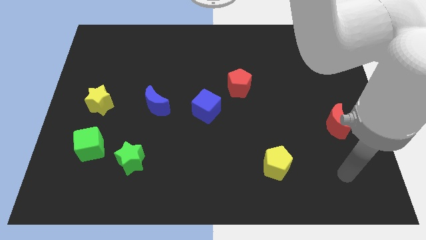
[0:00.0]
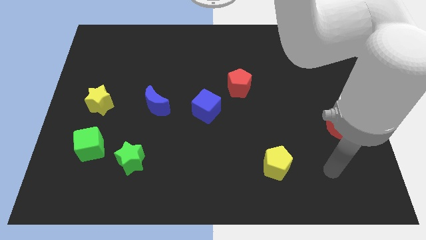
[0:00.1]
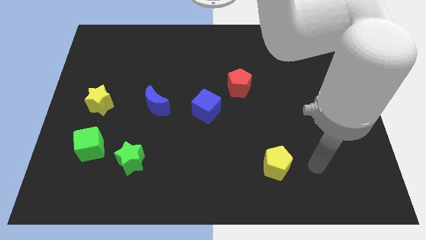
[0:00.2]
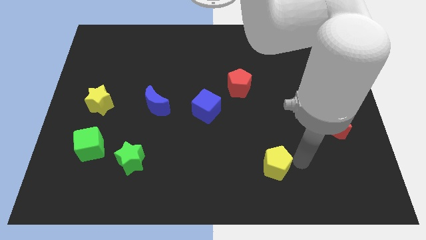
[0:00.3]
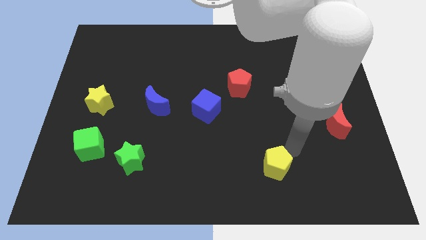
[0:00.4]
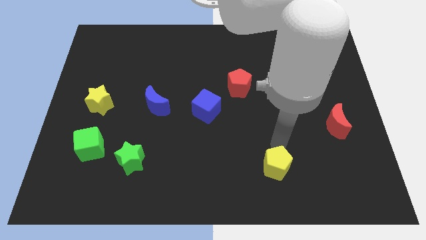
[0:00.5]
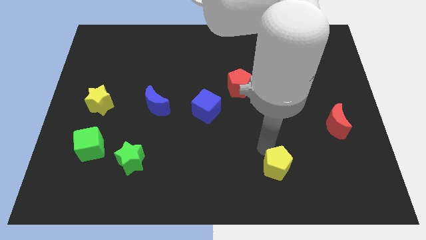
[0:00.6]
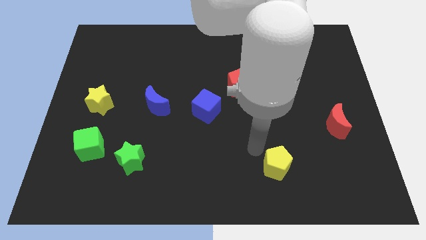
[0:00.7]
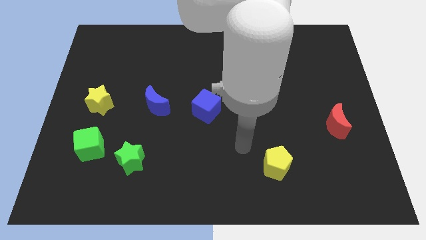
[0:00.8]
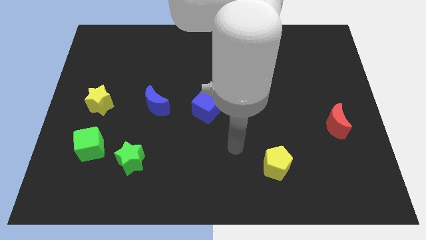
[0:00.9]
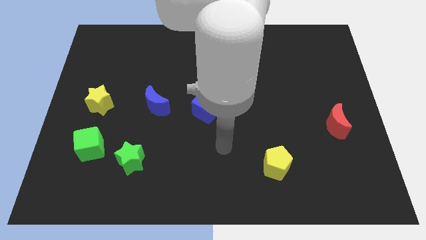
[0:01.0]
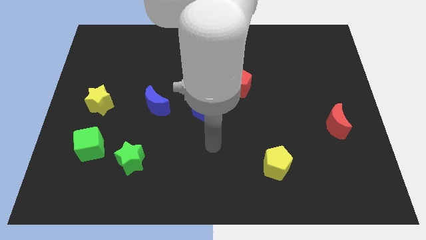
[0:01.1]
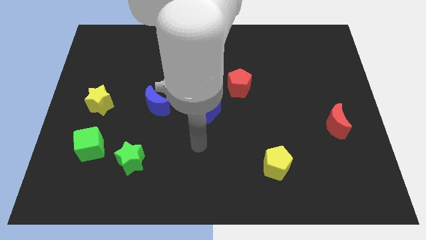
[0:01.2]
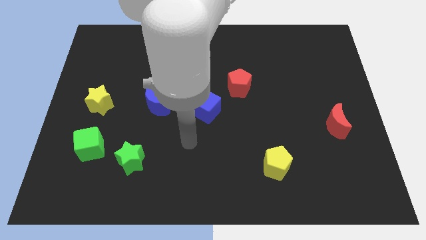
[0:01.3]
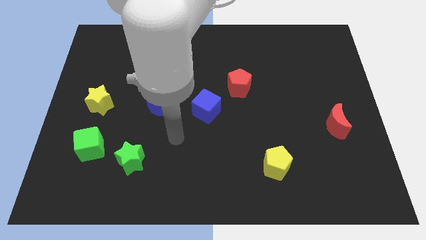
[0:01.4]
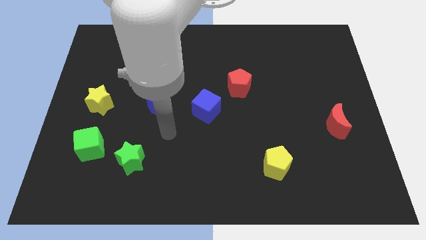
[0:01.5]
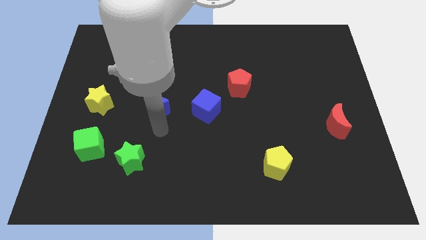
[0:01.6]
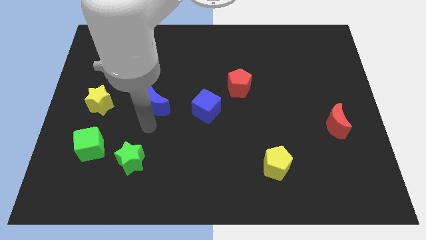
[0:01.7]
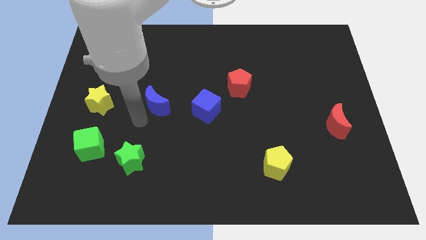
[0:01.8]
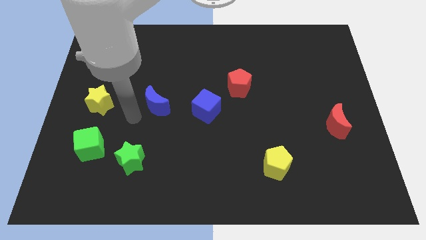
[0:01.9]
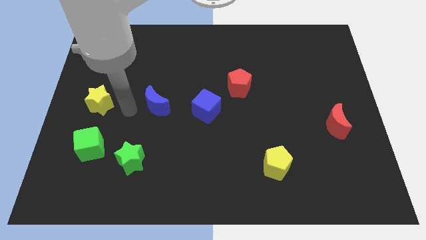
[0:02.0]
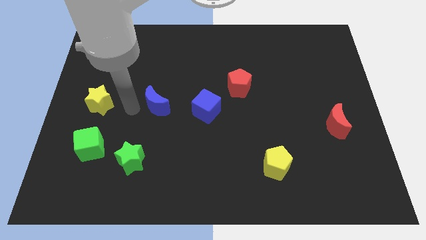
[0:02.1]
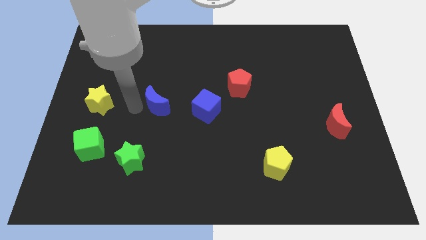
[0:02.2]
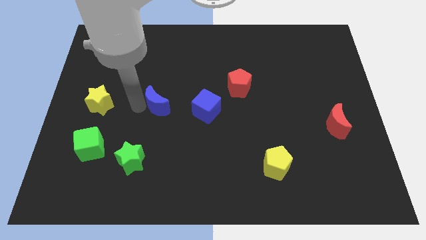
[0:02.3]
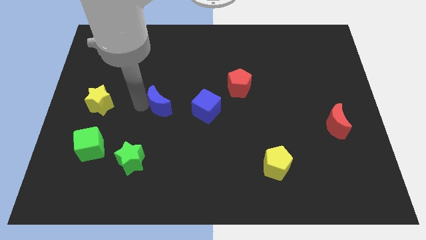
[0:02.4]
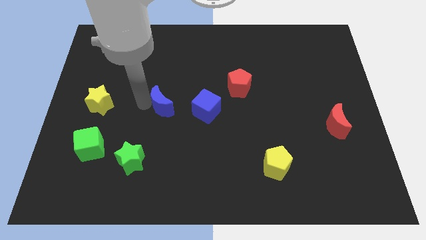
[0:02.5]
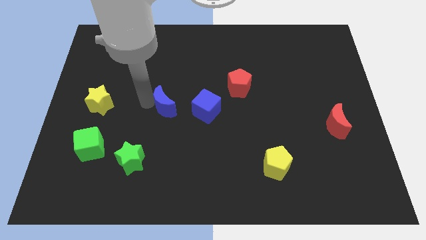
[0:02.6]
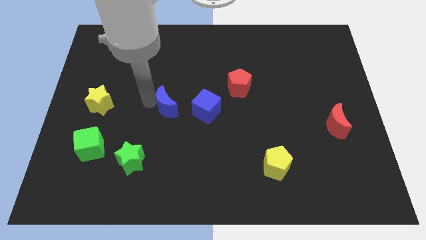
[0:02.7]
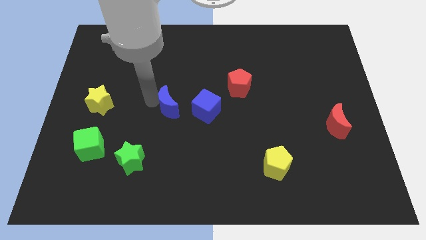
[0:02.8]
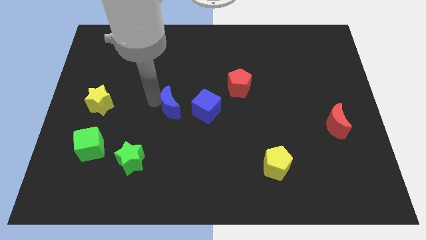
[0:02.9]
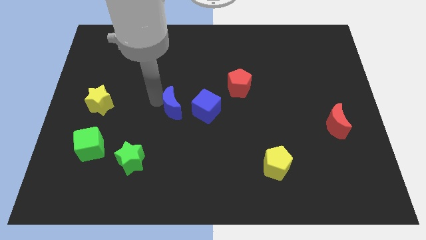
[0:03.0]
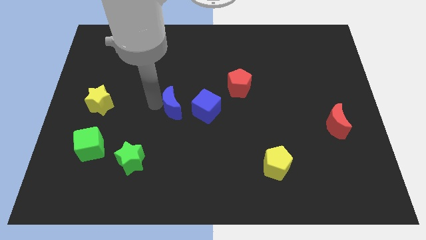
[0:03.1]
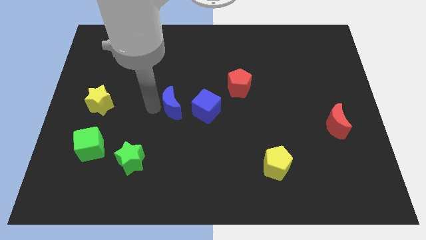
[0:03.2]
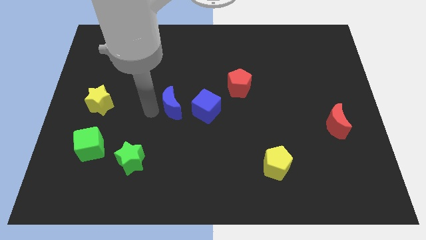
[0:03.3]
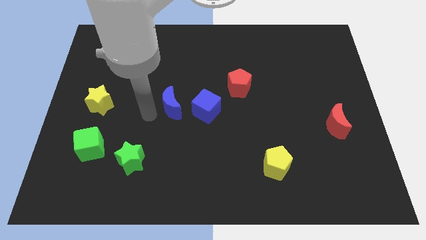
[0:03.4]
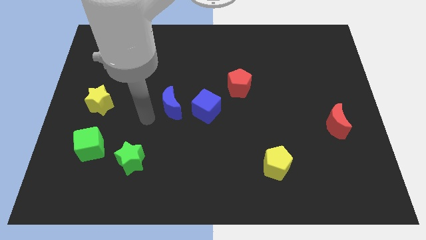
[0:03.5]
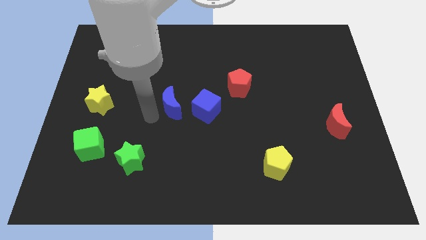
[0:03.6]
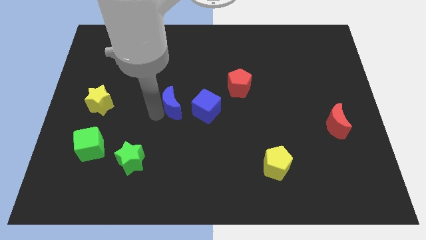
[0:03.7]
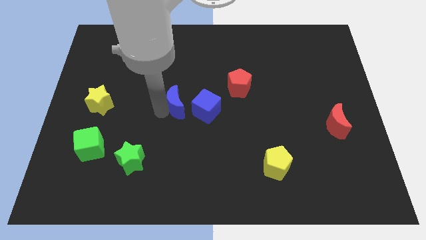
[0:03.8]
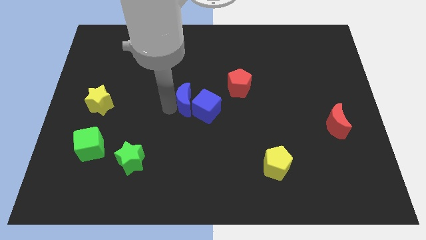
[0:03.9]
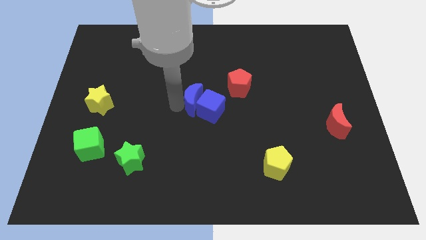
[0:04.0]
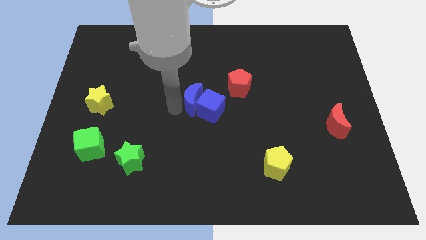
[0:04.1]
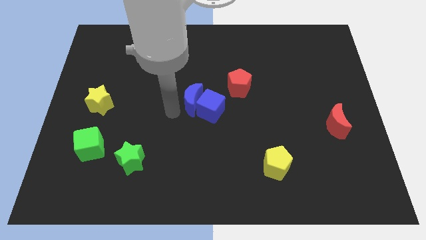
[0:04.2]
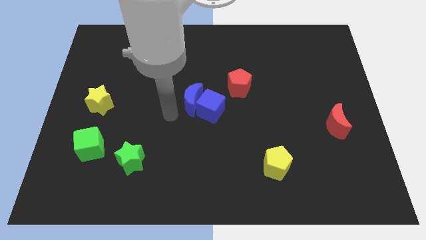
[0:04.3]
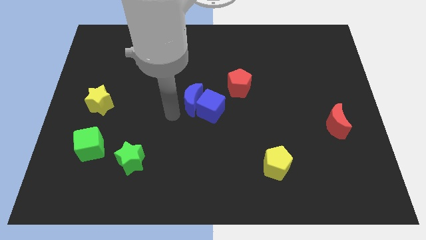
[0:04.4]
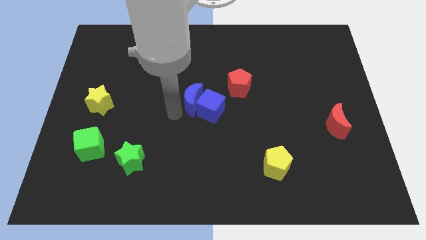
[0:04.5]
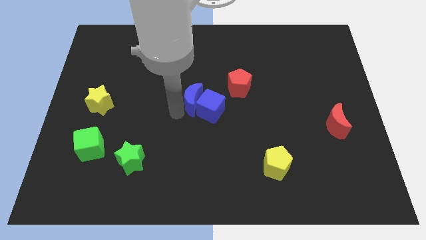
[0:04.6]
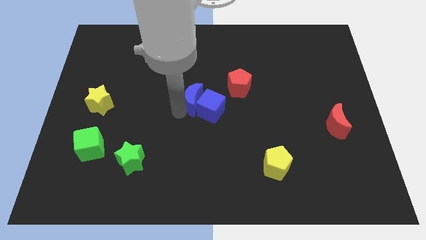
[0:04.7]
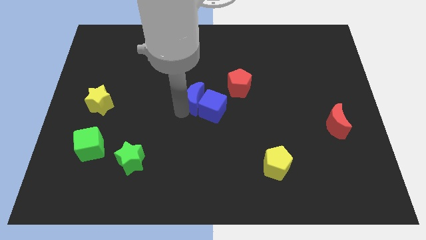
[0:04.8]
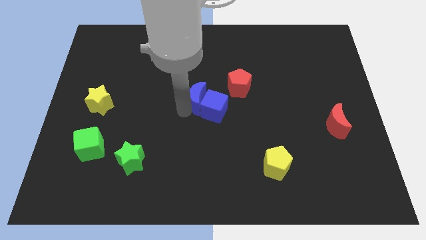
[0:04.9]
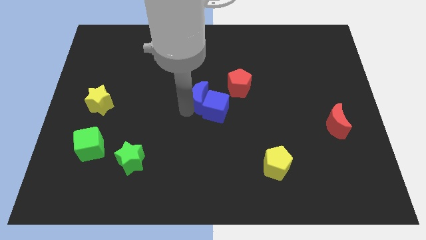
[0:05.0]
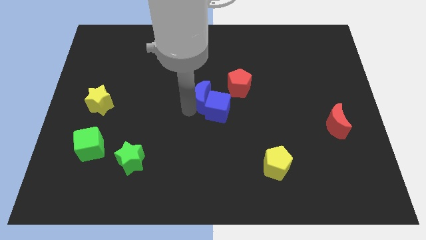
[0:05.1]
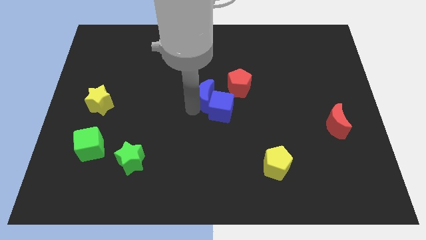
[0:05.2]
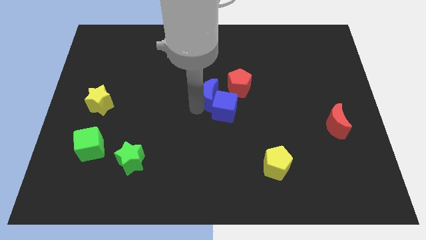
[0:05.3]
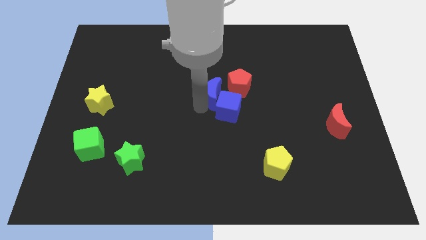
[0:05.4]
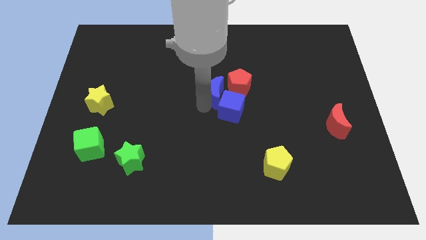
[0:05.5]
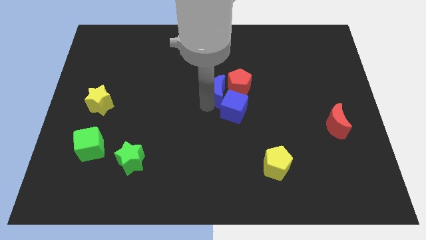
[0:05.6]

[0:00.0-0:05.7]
slide the blue moon to the red pentagon

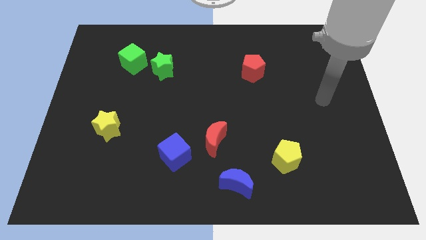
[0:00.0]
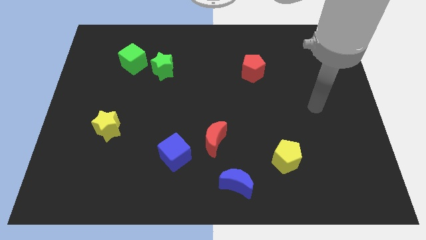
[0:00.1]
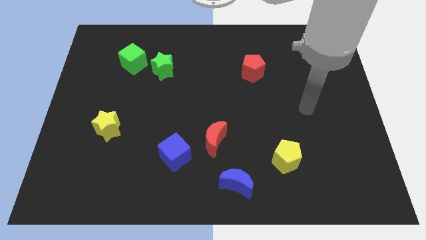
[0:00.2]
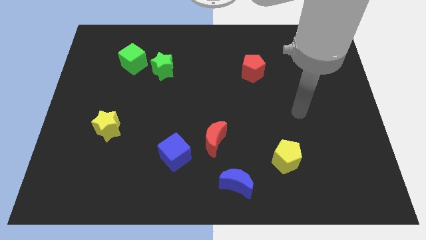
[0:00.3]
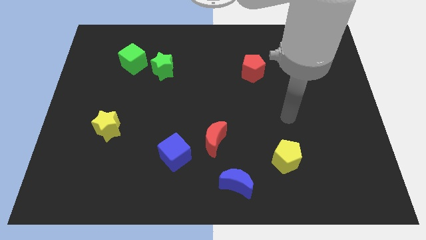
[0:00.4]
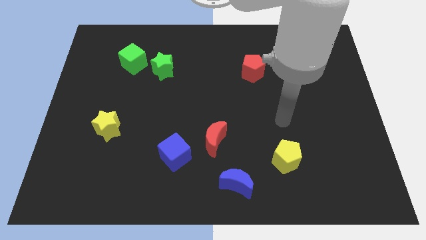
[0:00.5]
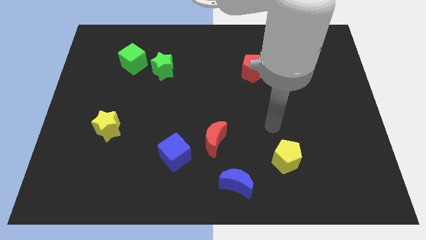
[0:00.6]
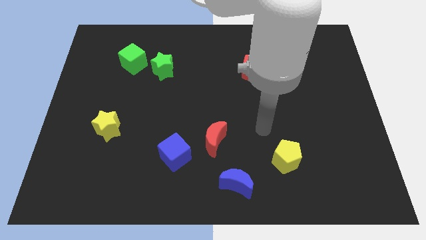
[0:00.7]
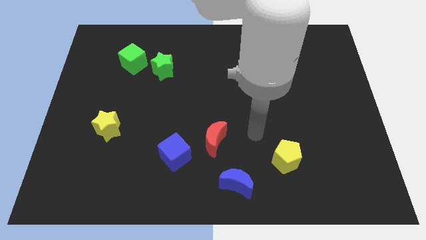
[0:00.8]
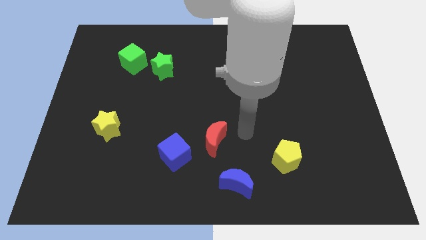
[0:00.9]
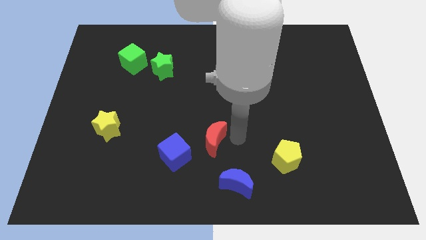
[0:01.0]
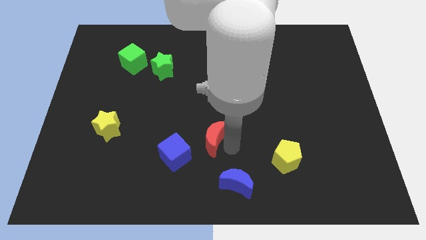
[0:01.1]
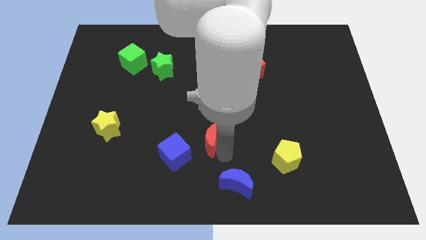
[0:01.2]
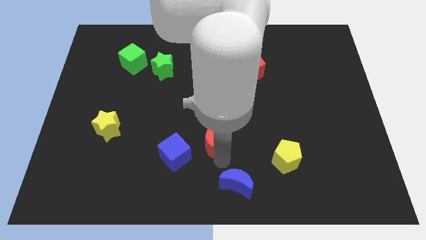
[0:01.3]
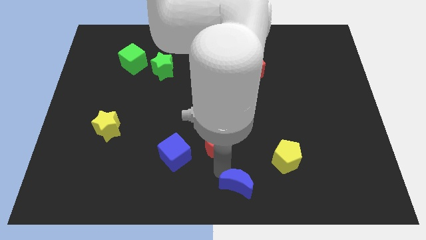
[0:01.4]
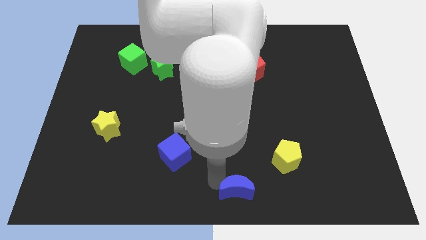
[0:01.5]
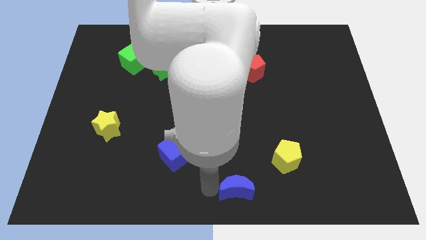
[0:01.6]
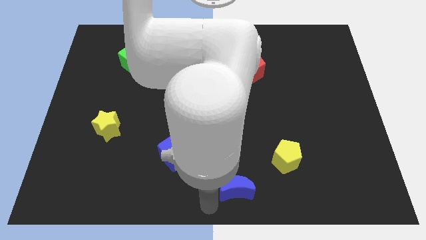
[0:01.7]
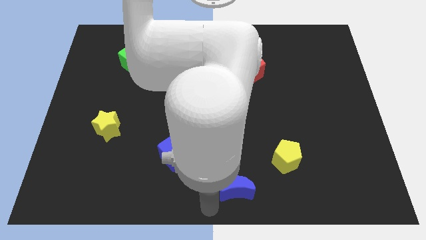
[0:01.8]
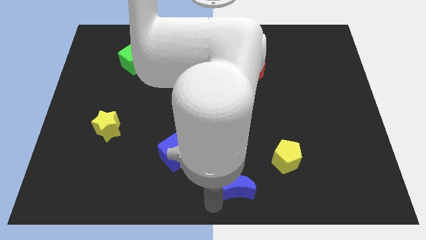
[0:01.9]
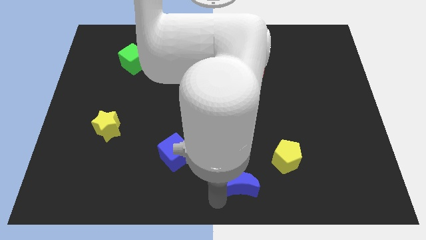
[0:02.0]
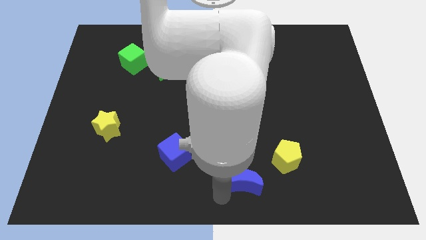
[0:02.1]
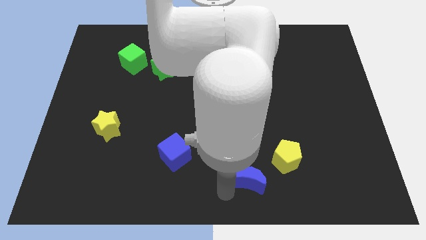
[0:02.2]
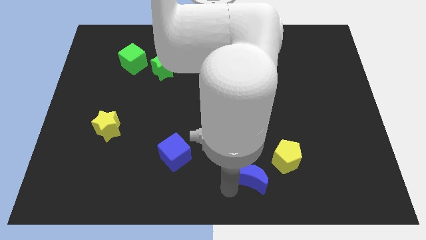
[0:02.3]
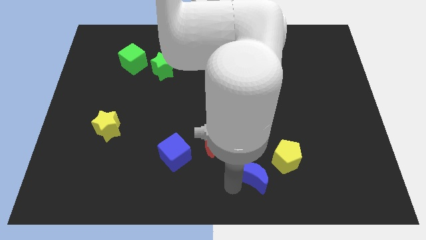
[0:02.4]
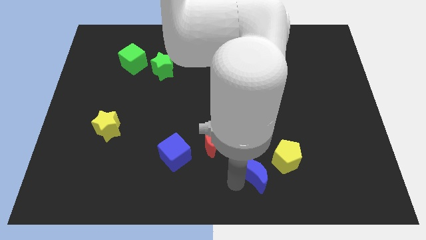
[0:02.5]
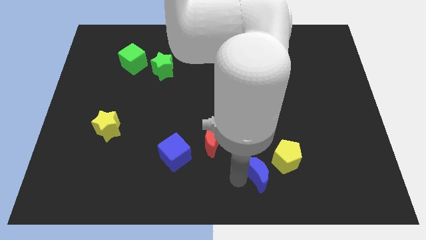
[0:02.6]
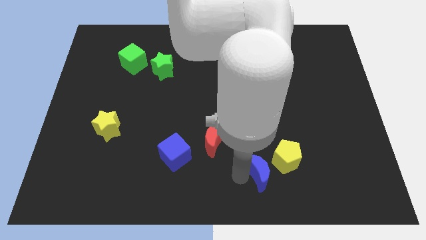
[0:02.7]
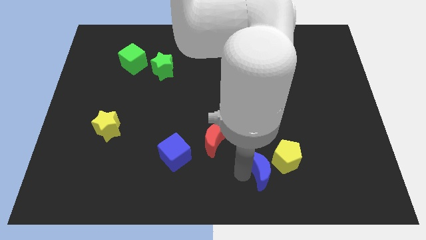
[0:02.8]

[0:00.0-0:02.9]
move the blue moon next to the yellow pentagon
